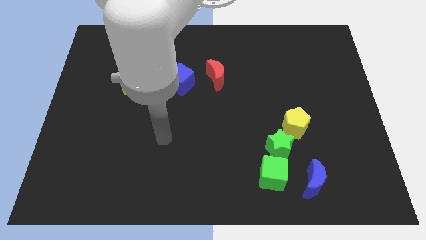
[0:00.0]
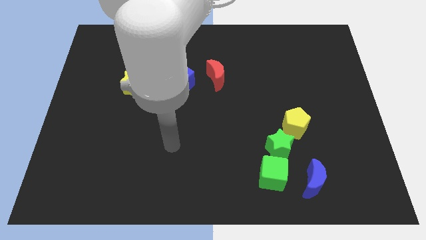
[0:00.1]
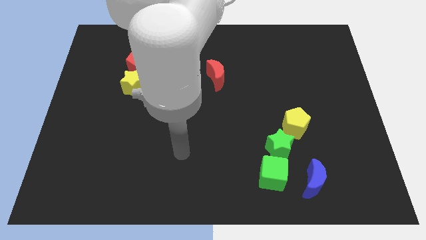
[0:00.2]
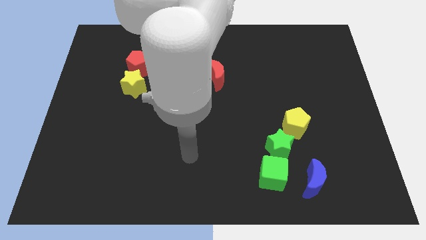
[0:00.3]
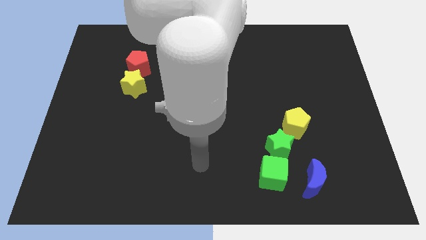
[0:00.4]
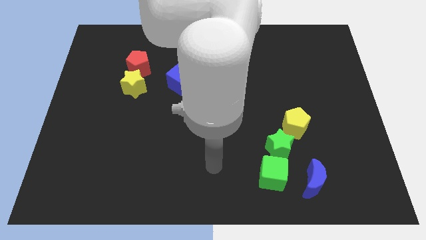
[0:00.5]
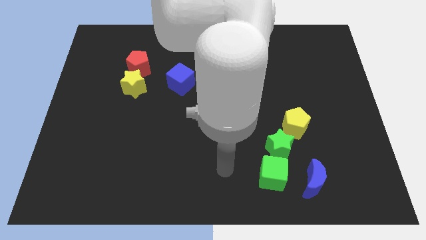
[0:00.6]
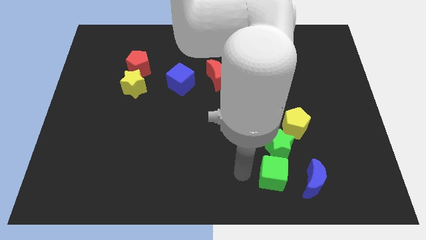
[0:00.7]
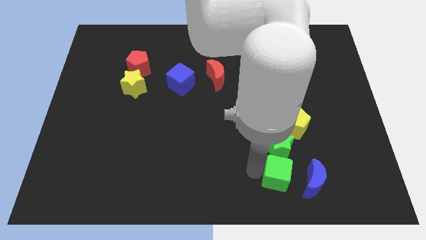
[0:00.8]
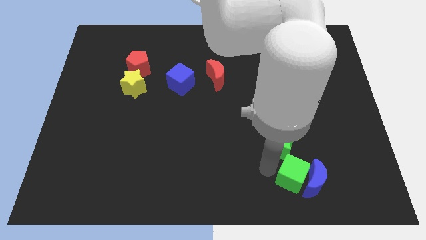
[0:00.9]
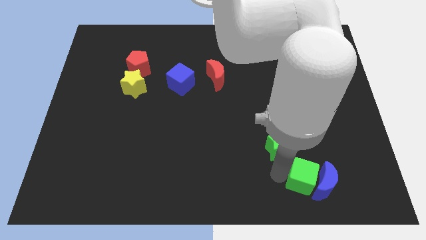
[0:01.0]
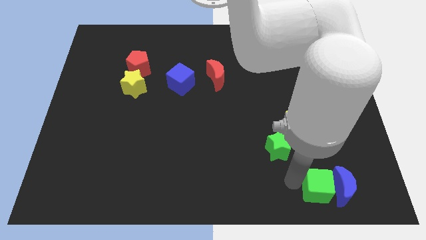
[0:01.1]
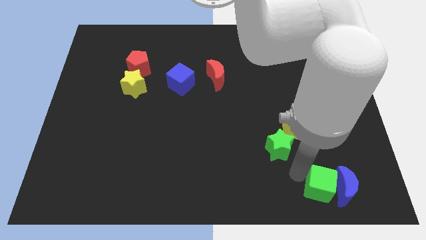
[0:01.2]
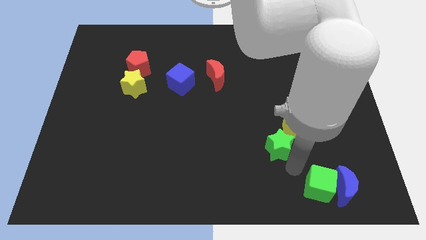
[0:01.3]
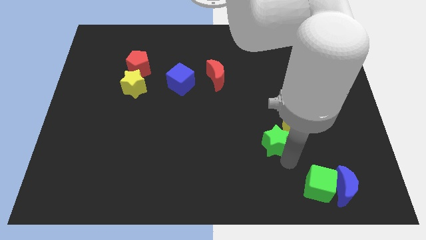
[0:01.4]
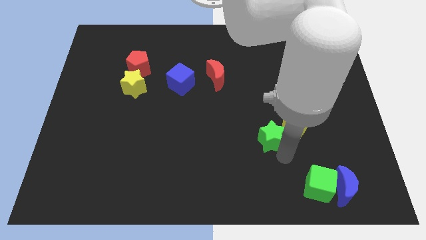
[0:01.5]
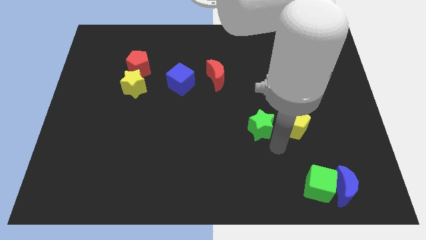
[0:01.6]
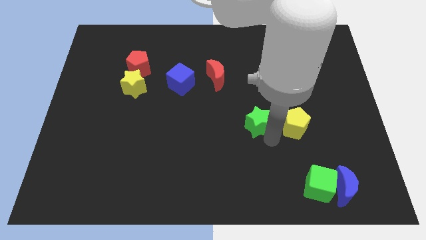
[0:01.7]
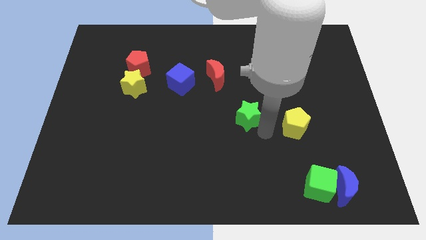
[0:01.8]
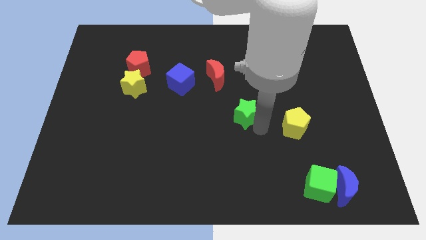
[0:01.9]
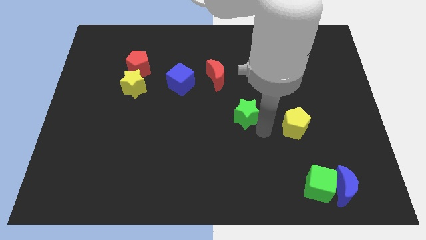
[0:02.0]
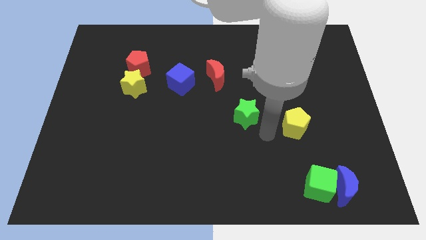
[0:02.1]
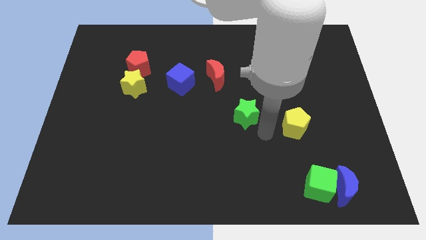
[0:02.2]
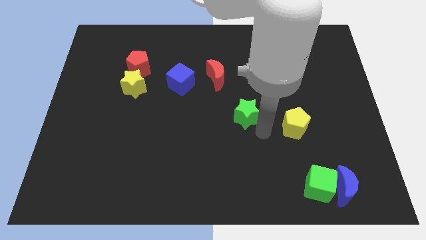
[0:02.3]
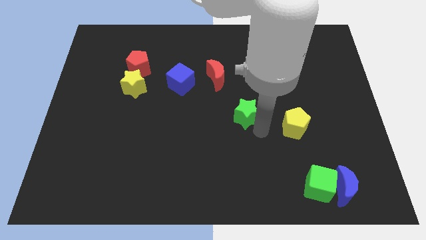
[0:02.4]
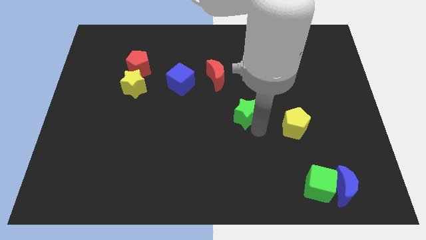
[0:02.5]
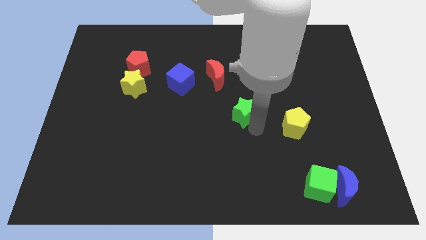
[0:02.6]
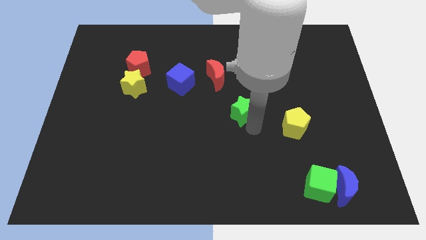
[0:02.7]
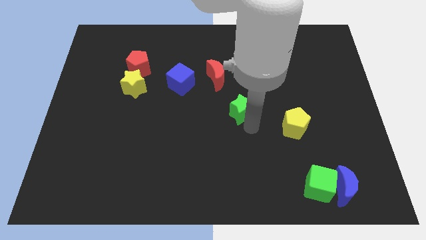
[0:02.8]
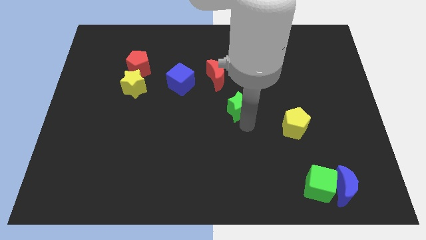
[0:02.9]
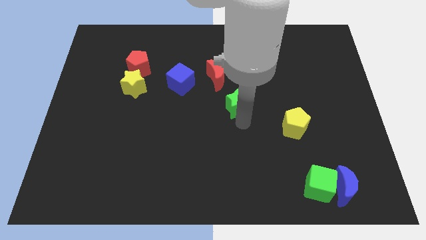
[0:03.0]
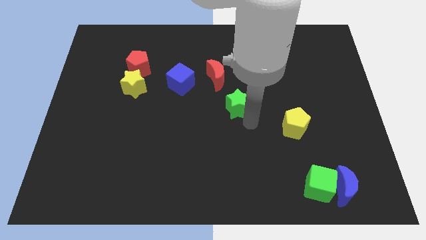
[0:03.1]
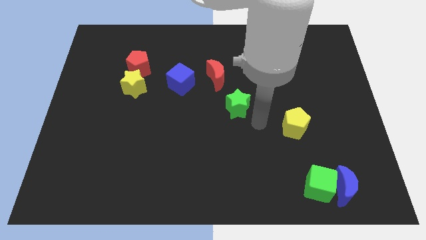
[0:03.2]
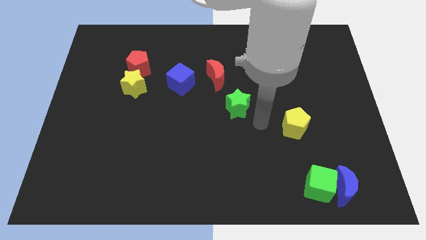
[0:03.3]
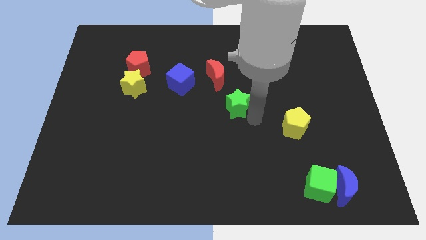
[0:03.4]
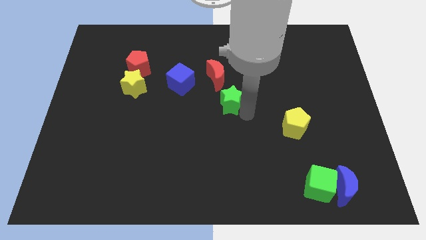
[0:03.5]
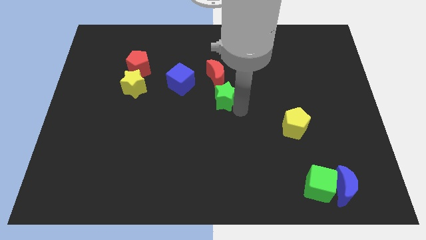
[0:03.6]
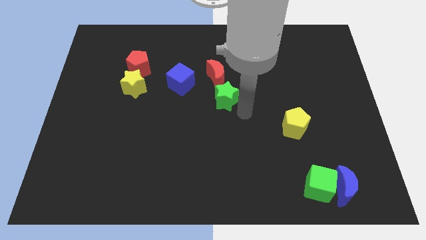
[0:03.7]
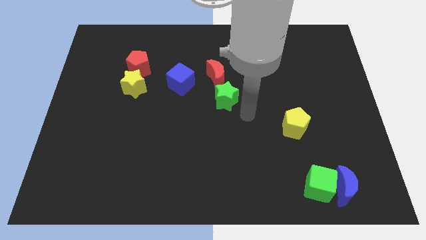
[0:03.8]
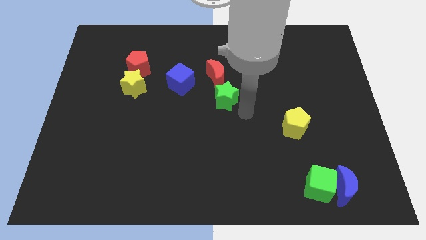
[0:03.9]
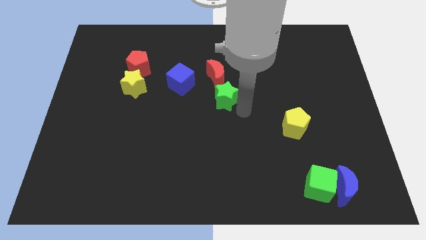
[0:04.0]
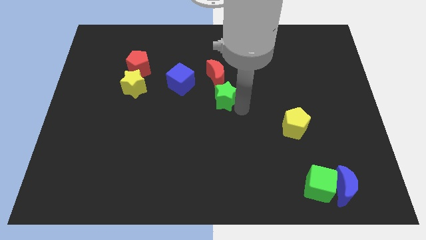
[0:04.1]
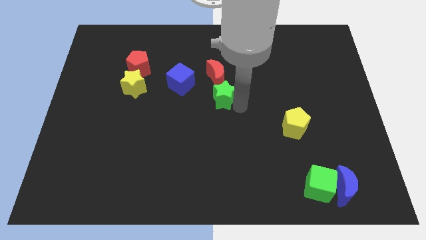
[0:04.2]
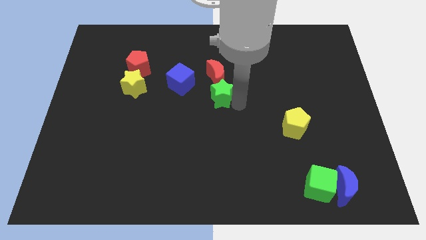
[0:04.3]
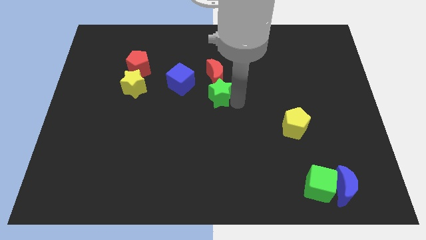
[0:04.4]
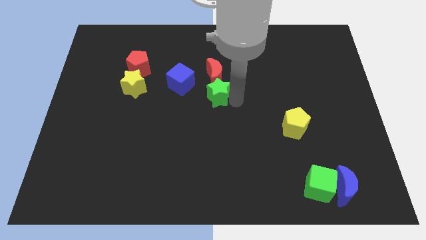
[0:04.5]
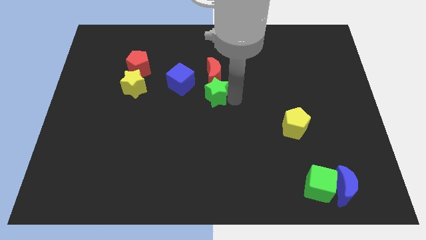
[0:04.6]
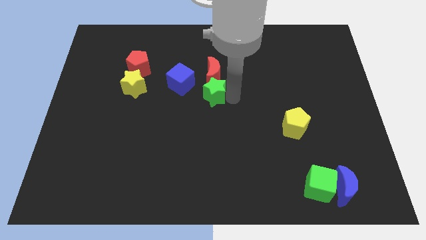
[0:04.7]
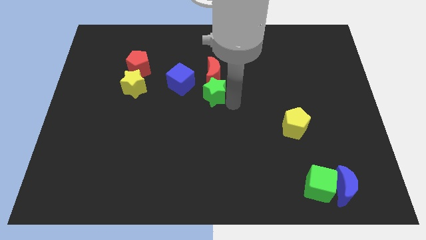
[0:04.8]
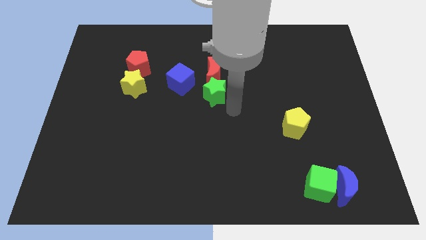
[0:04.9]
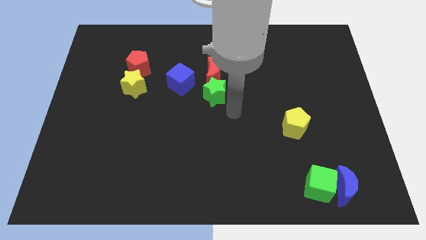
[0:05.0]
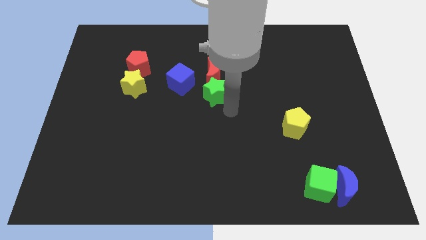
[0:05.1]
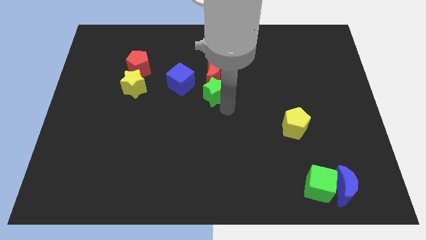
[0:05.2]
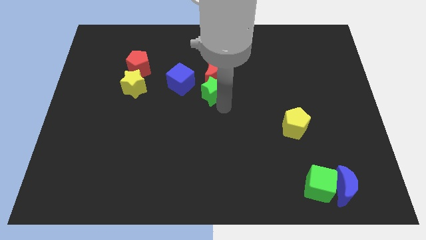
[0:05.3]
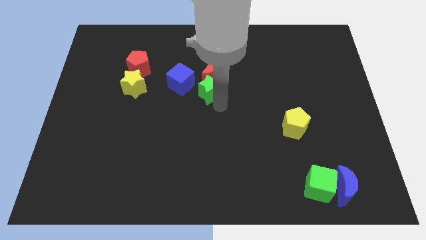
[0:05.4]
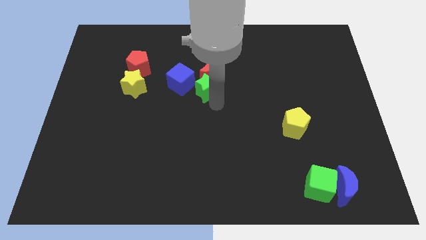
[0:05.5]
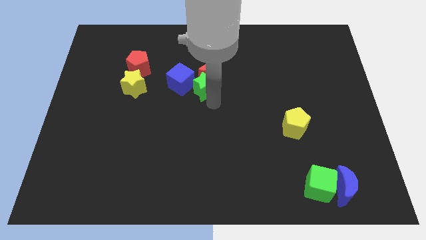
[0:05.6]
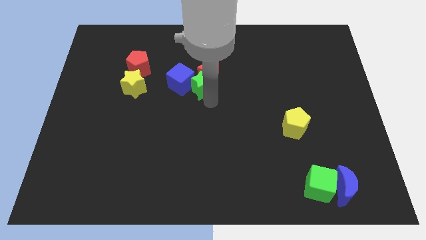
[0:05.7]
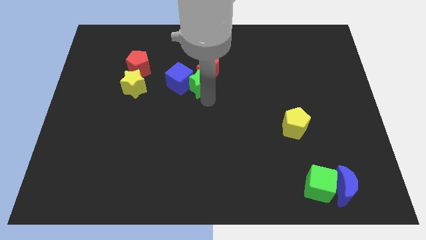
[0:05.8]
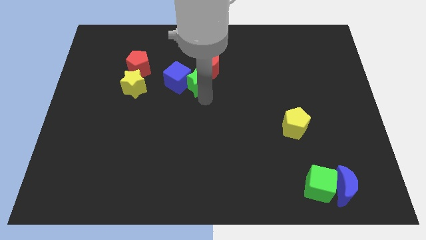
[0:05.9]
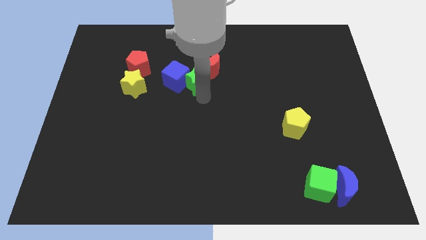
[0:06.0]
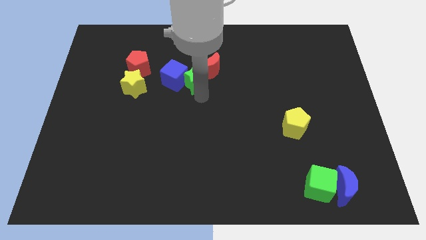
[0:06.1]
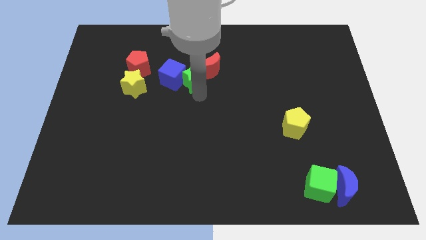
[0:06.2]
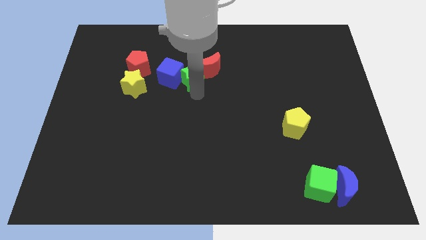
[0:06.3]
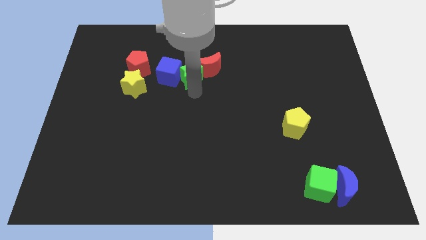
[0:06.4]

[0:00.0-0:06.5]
slide the green star just right of the red pentagon

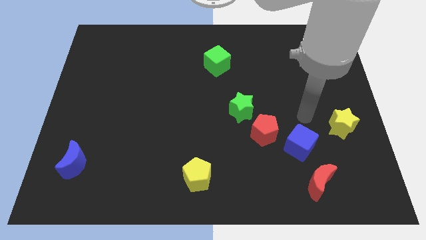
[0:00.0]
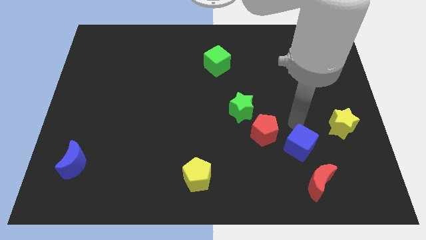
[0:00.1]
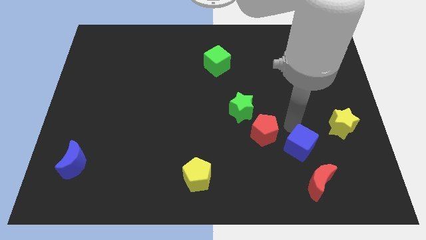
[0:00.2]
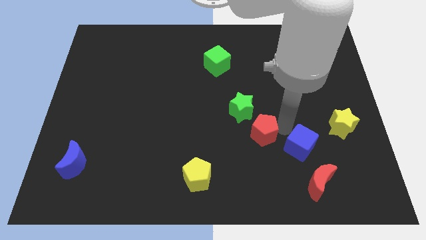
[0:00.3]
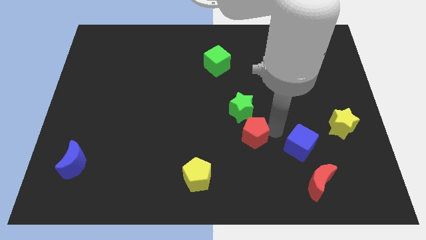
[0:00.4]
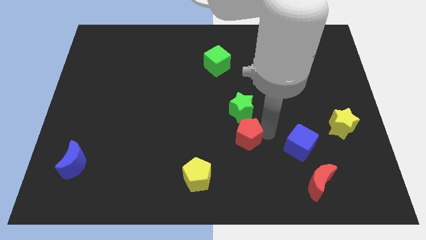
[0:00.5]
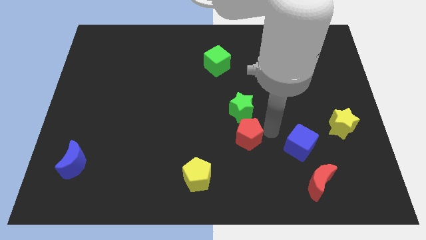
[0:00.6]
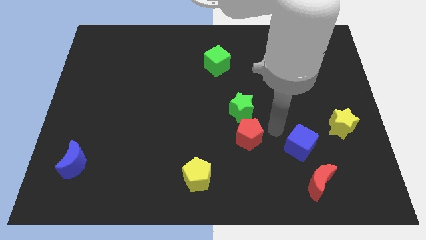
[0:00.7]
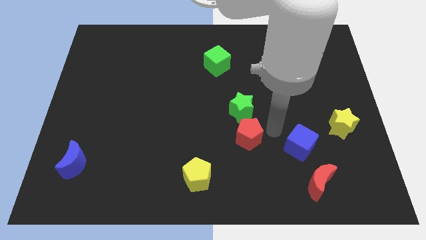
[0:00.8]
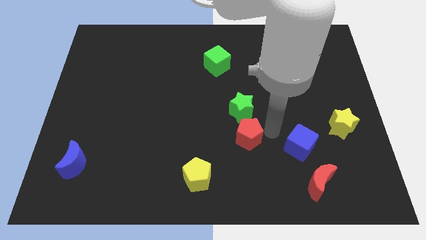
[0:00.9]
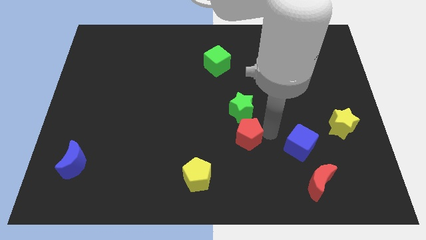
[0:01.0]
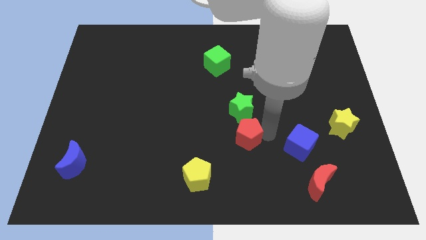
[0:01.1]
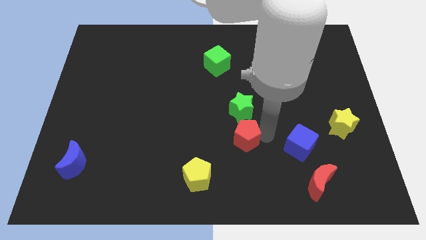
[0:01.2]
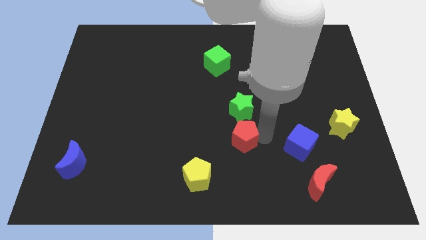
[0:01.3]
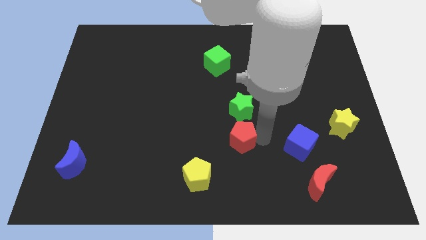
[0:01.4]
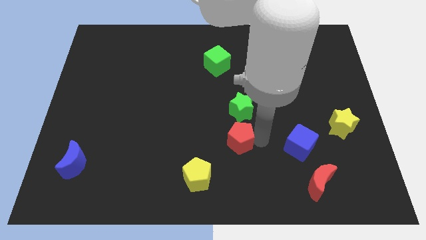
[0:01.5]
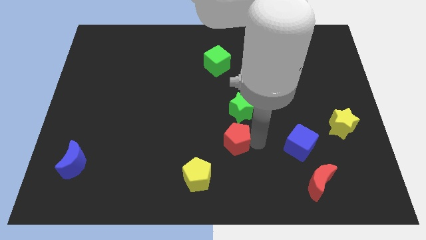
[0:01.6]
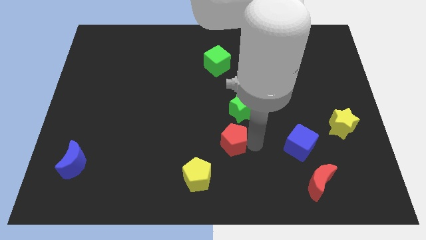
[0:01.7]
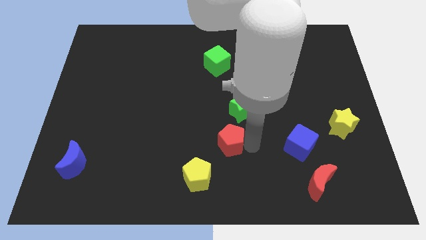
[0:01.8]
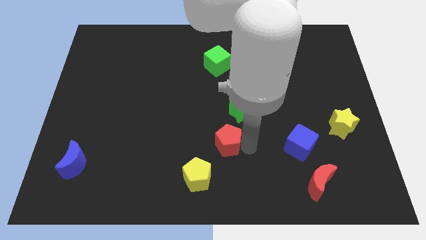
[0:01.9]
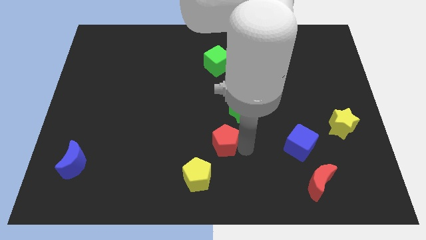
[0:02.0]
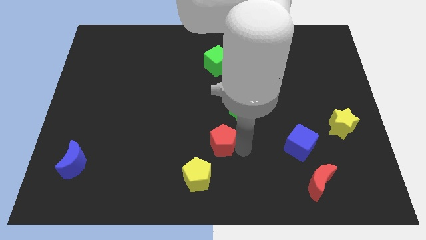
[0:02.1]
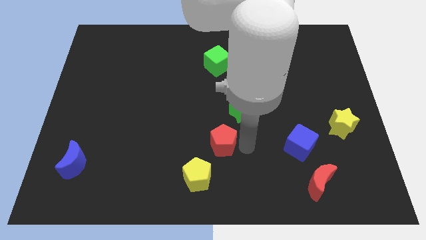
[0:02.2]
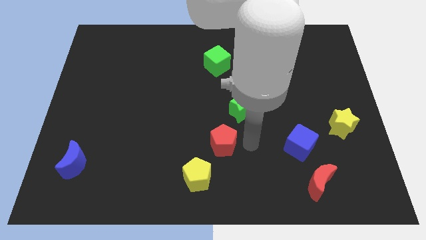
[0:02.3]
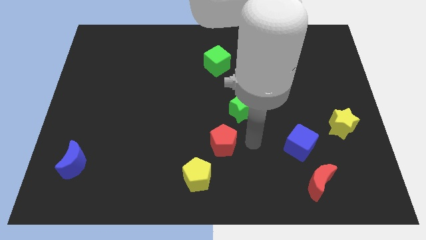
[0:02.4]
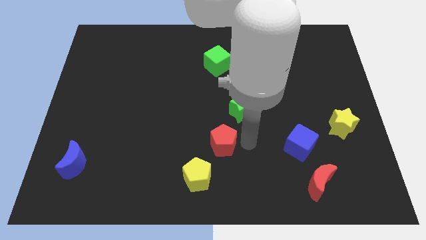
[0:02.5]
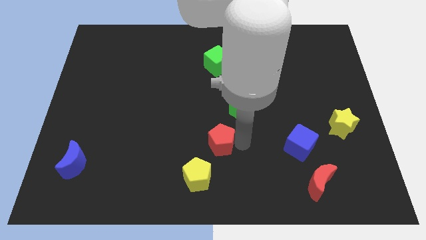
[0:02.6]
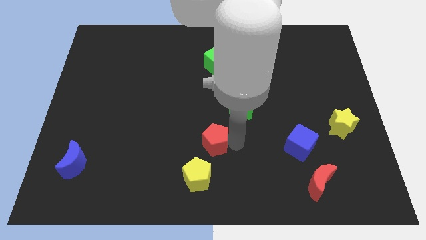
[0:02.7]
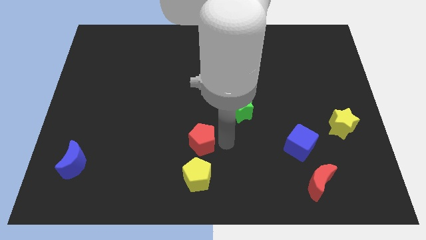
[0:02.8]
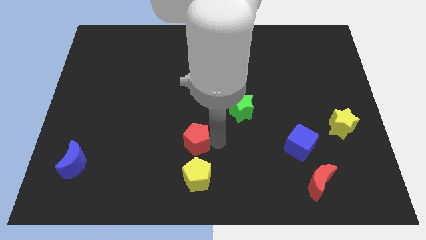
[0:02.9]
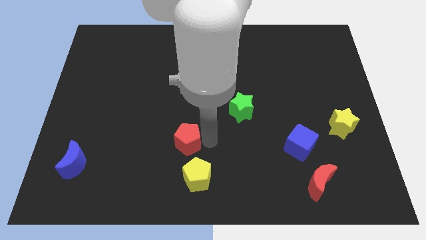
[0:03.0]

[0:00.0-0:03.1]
put the red pentagon to the top left side of the yellow pentagon
